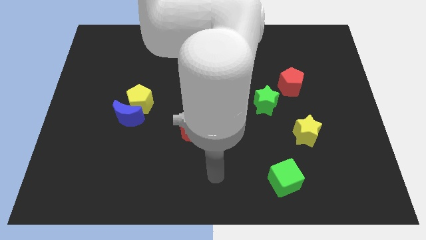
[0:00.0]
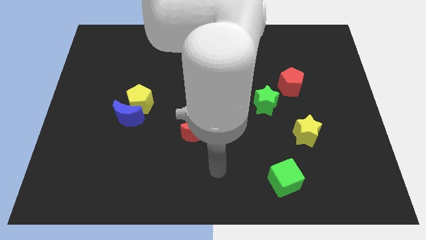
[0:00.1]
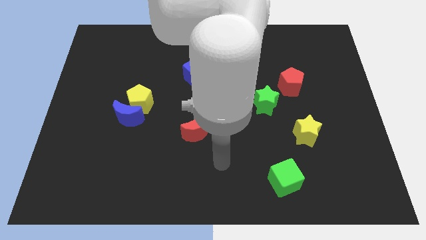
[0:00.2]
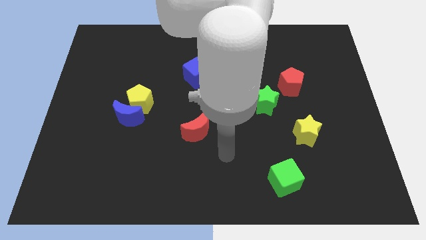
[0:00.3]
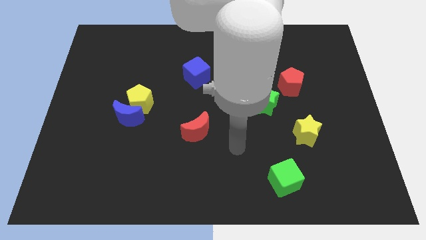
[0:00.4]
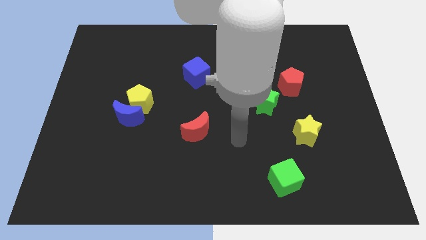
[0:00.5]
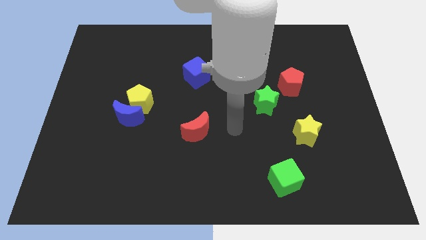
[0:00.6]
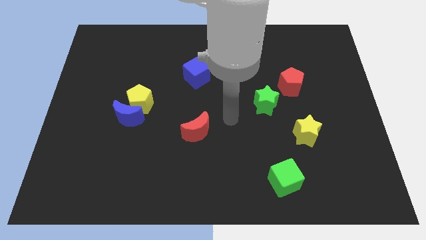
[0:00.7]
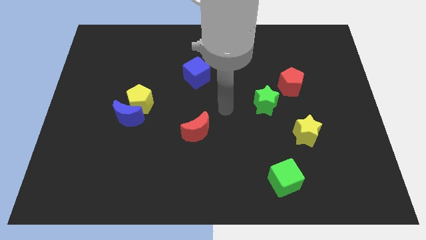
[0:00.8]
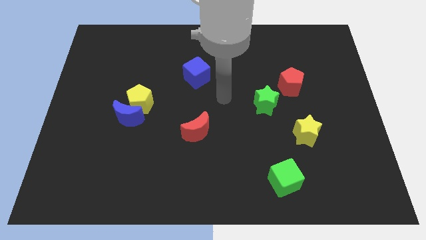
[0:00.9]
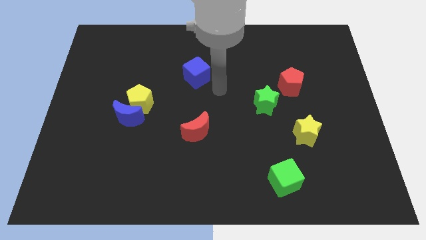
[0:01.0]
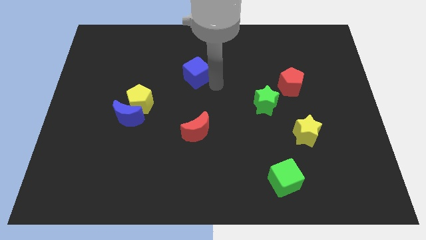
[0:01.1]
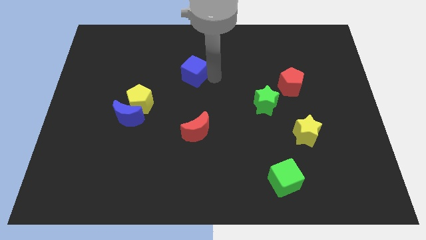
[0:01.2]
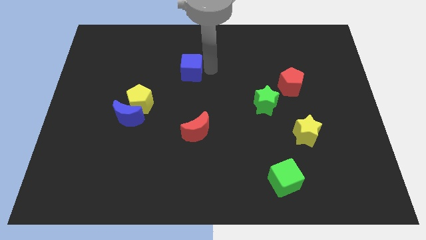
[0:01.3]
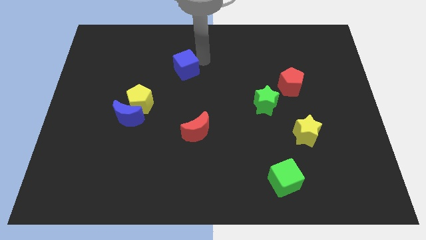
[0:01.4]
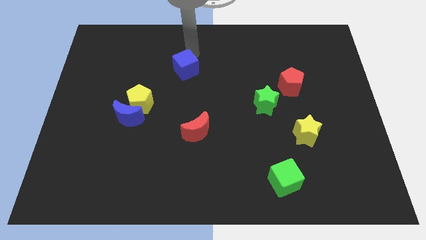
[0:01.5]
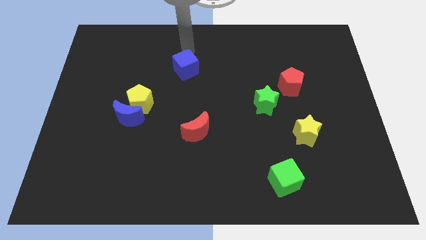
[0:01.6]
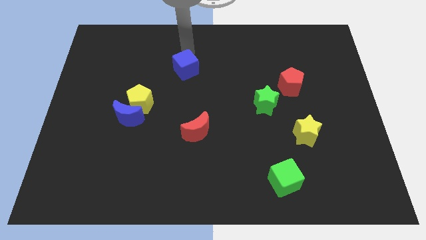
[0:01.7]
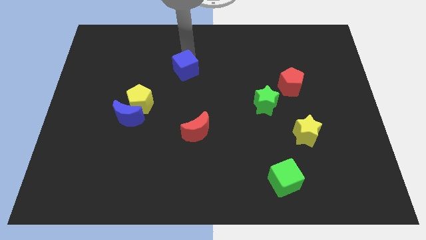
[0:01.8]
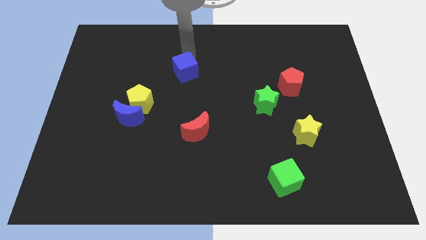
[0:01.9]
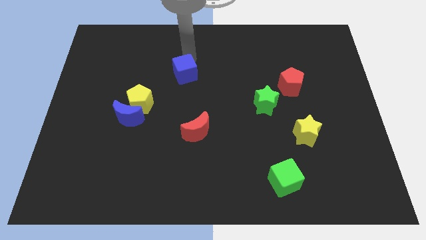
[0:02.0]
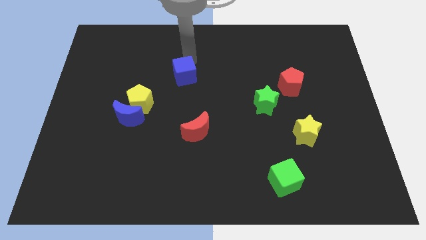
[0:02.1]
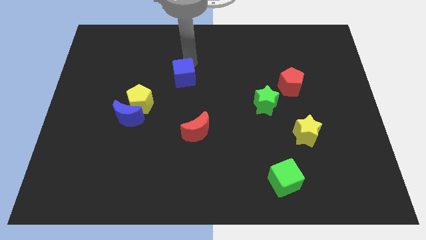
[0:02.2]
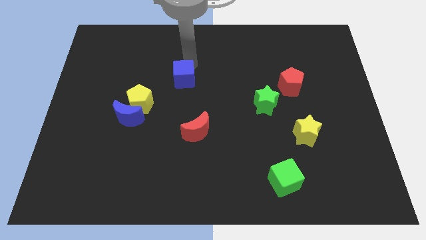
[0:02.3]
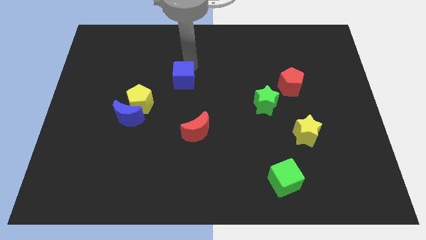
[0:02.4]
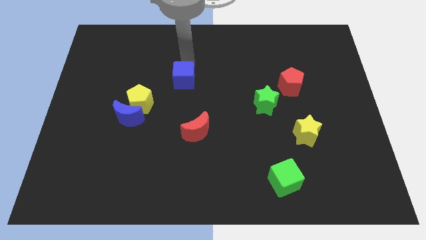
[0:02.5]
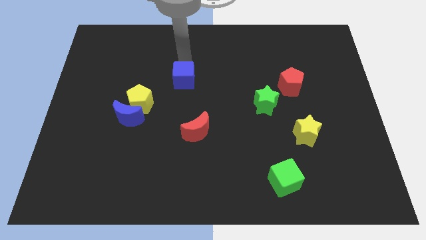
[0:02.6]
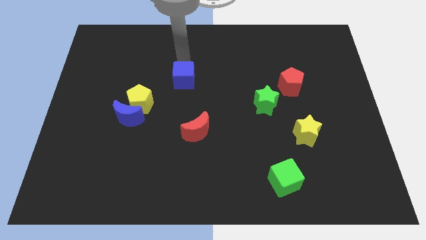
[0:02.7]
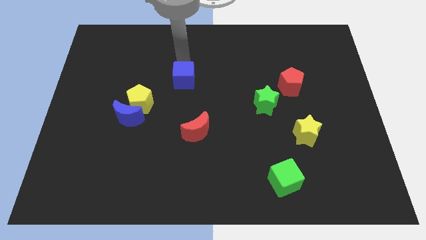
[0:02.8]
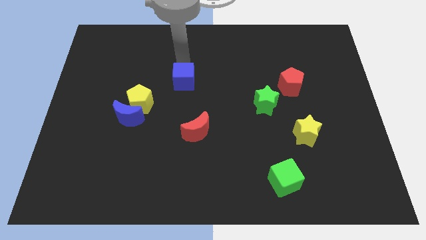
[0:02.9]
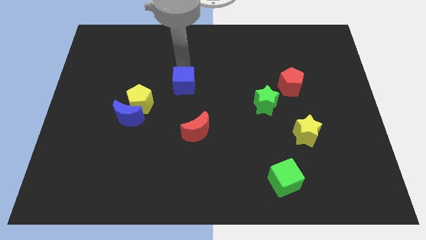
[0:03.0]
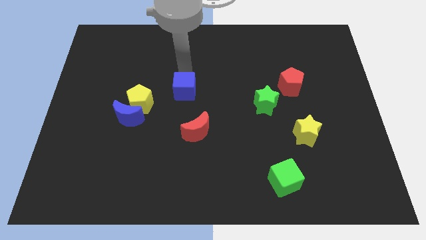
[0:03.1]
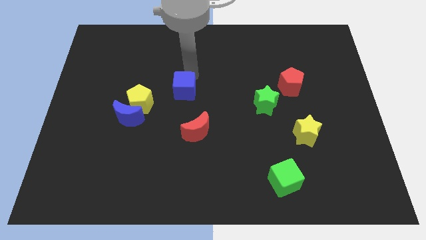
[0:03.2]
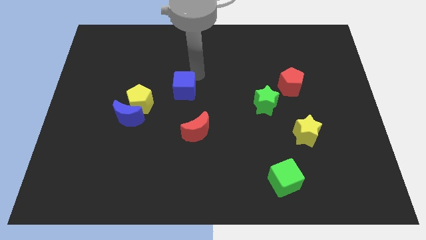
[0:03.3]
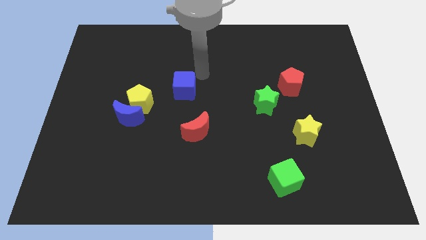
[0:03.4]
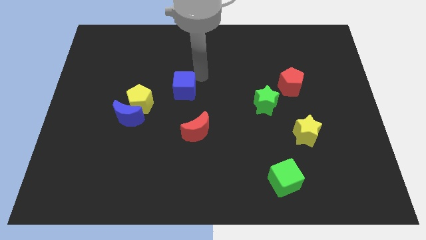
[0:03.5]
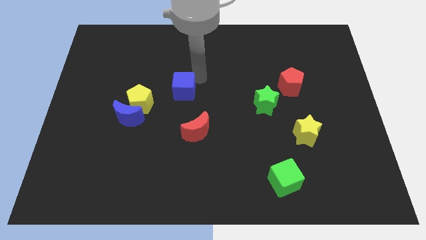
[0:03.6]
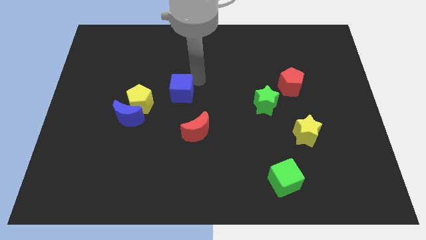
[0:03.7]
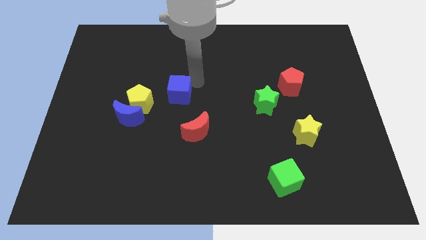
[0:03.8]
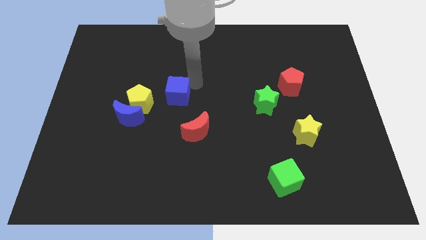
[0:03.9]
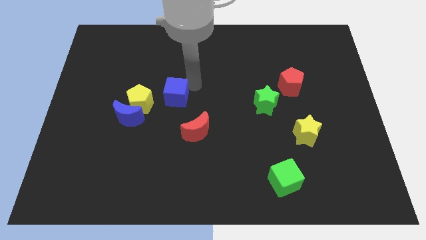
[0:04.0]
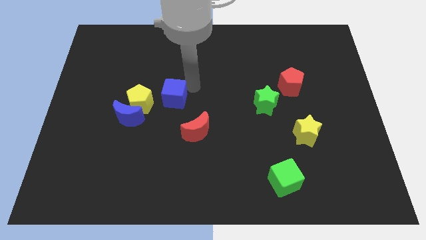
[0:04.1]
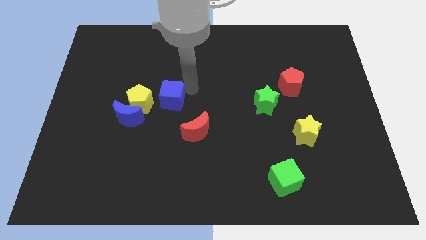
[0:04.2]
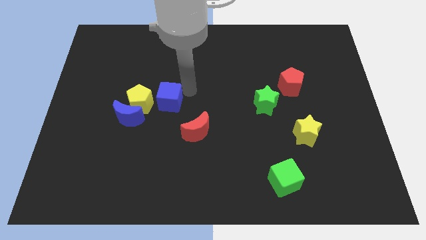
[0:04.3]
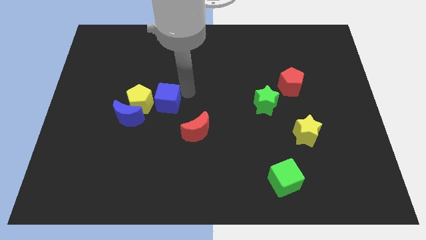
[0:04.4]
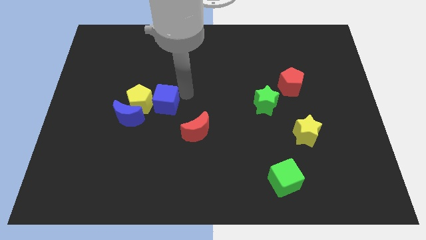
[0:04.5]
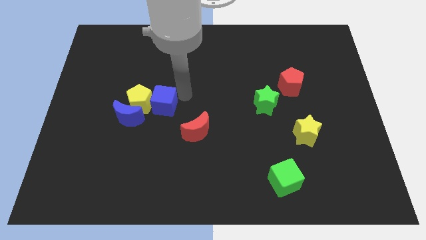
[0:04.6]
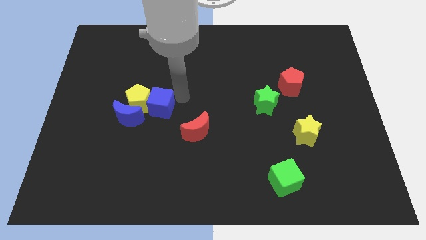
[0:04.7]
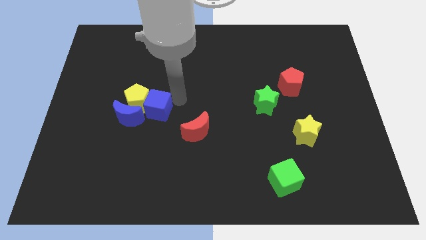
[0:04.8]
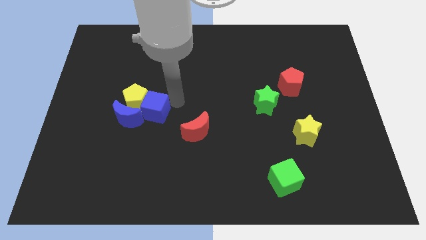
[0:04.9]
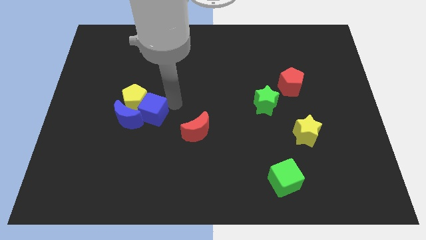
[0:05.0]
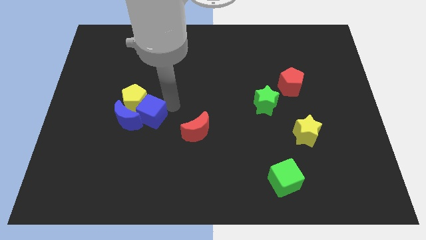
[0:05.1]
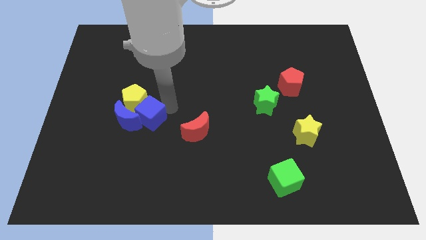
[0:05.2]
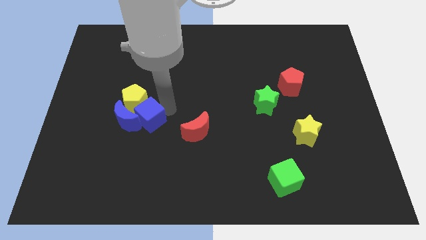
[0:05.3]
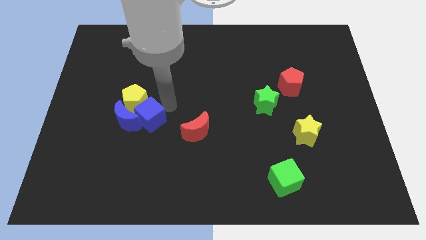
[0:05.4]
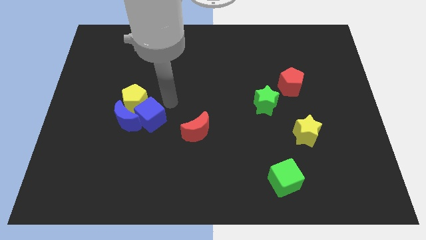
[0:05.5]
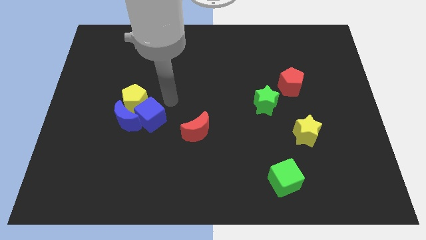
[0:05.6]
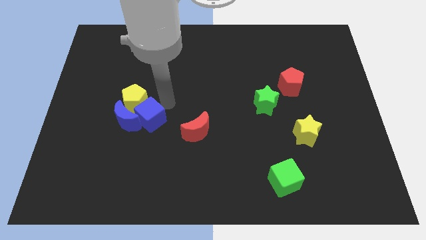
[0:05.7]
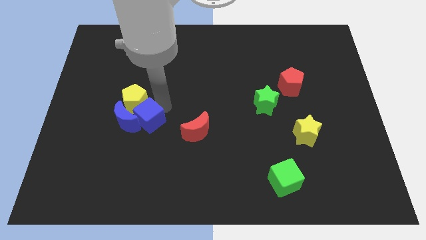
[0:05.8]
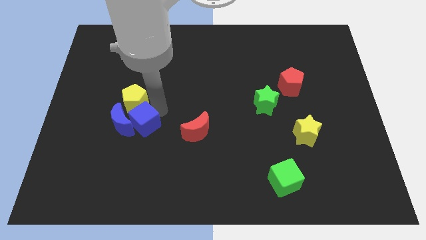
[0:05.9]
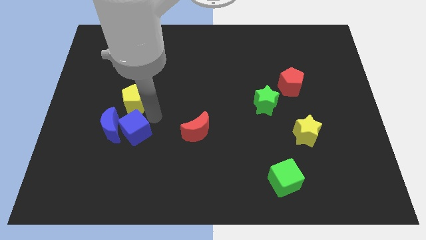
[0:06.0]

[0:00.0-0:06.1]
move the blue cube diagonally down and to the left

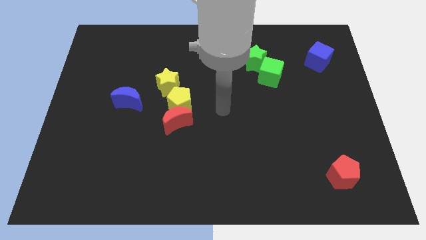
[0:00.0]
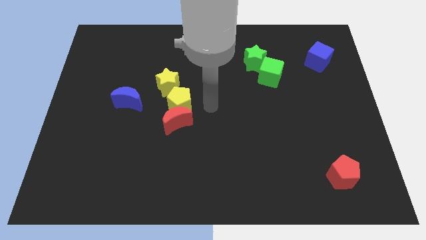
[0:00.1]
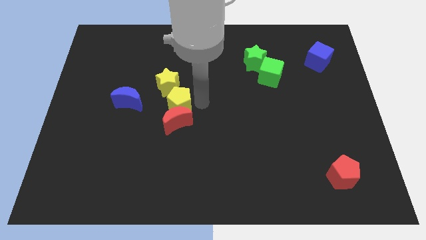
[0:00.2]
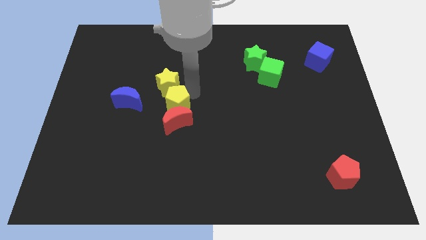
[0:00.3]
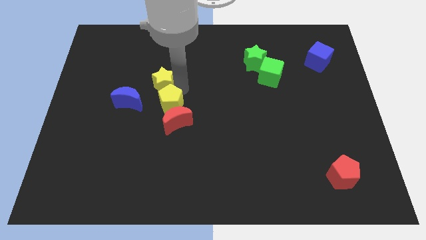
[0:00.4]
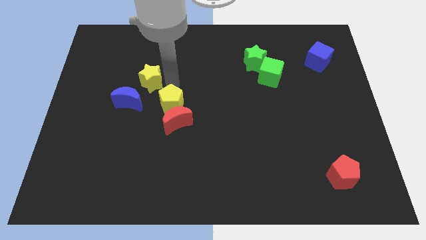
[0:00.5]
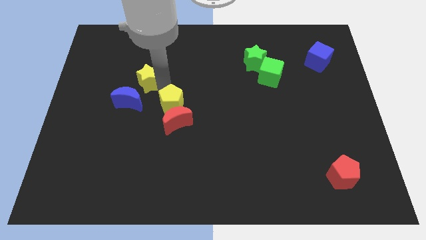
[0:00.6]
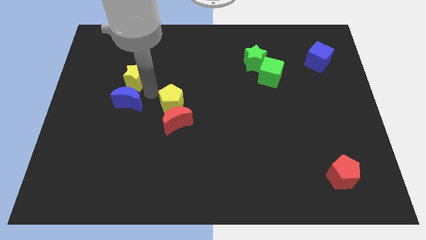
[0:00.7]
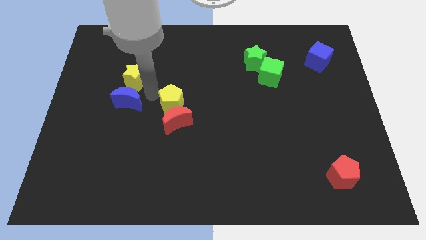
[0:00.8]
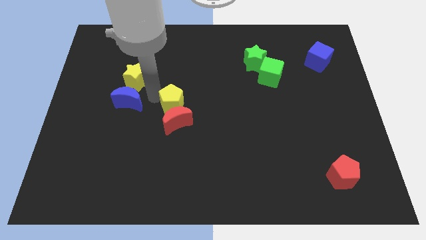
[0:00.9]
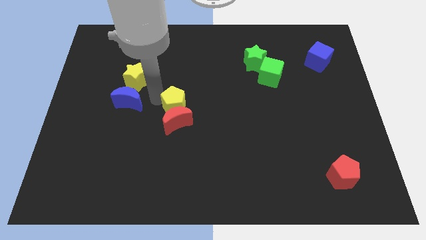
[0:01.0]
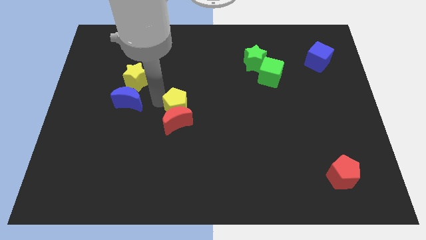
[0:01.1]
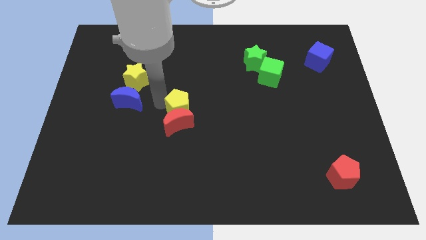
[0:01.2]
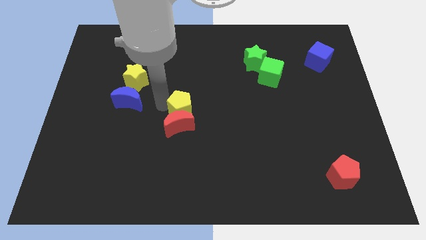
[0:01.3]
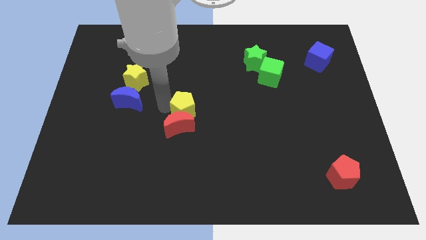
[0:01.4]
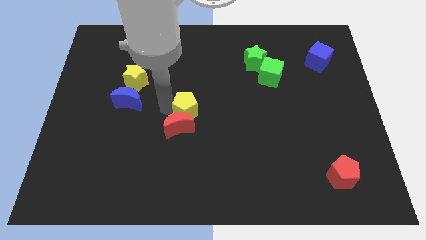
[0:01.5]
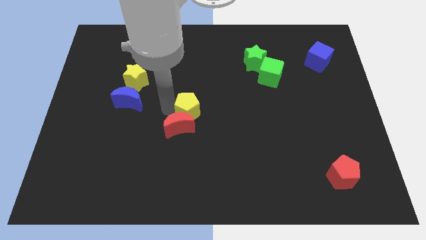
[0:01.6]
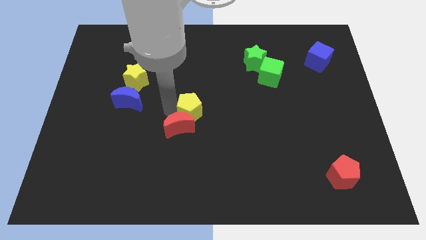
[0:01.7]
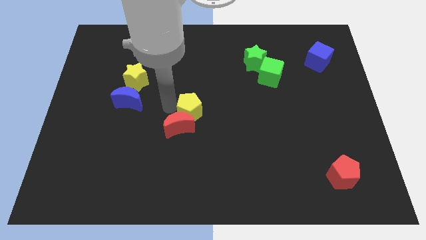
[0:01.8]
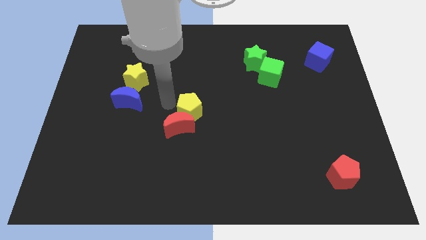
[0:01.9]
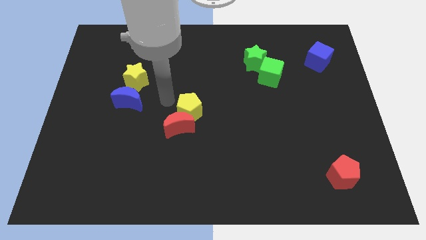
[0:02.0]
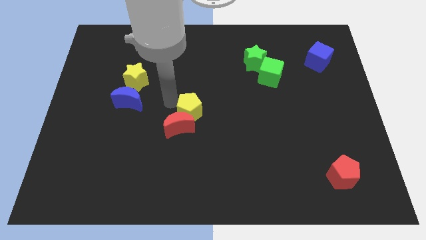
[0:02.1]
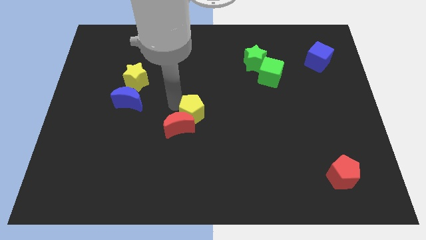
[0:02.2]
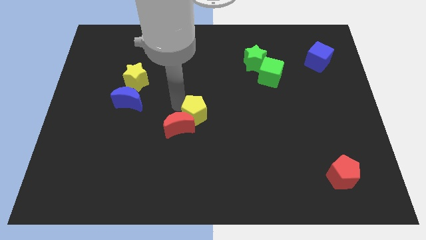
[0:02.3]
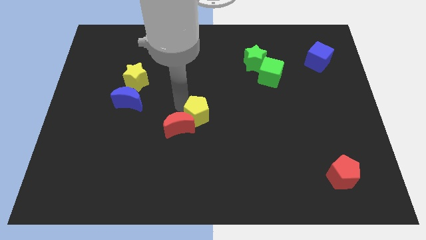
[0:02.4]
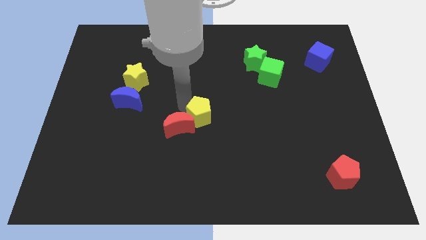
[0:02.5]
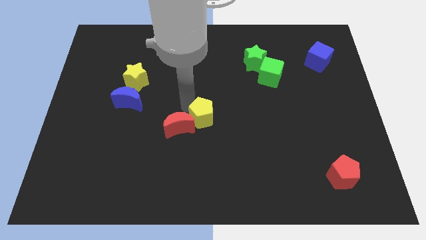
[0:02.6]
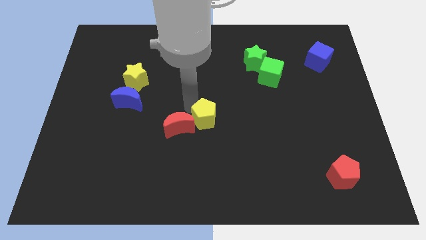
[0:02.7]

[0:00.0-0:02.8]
slightly move the yellow pentagon diagonally down and right
